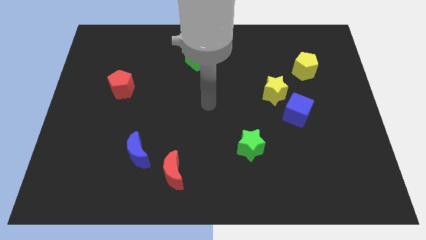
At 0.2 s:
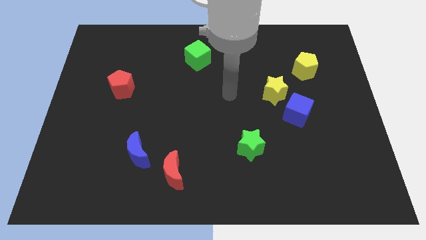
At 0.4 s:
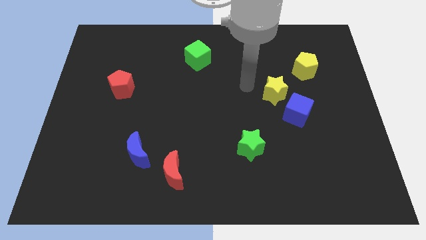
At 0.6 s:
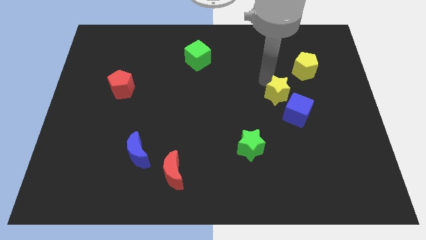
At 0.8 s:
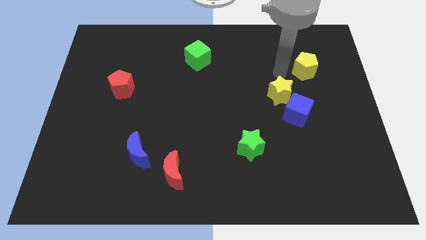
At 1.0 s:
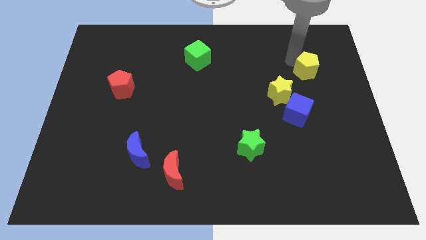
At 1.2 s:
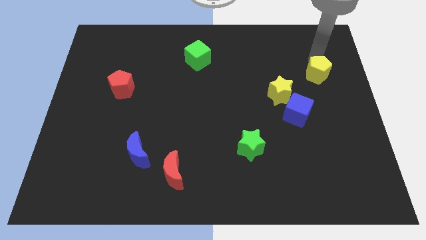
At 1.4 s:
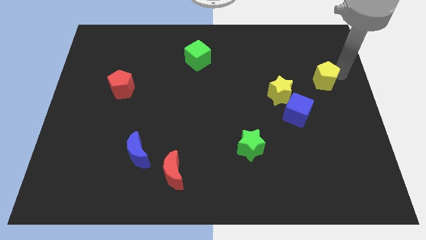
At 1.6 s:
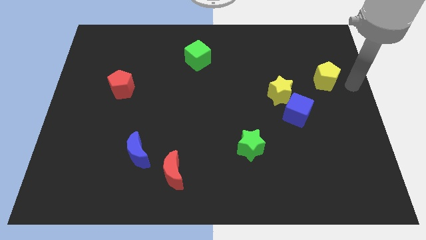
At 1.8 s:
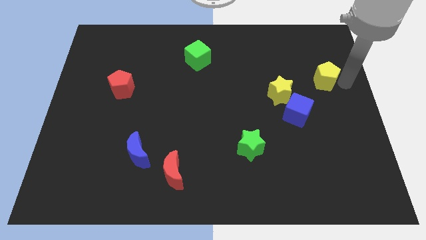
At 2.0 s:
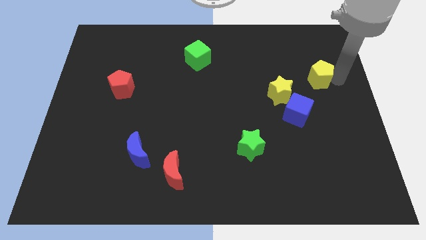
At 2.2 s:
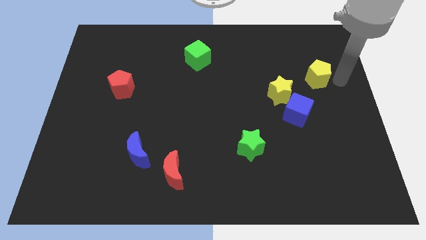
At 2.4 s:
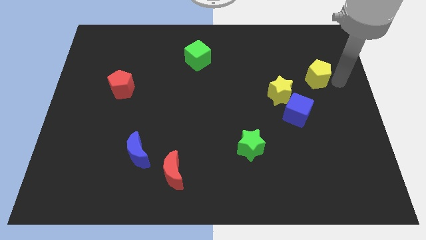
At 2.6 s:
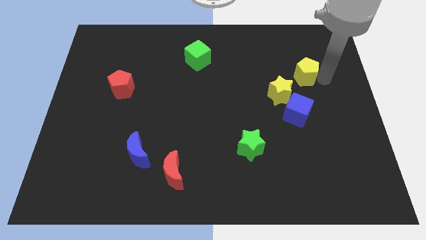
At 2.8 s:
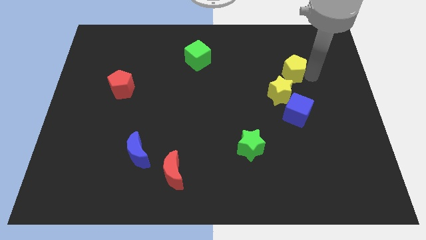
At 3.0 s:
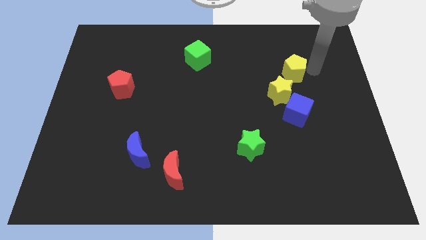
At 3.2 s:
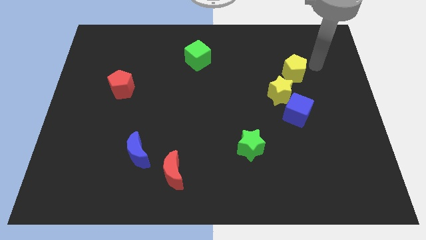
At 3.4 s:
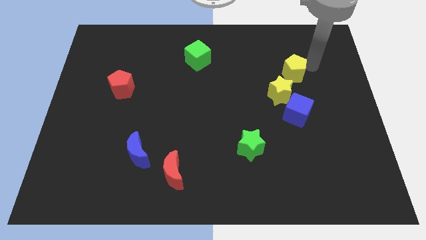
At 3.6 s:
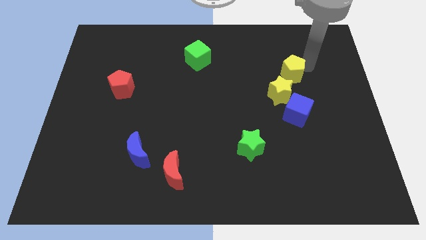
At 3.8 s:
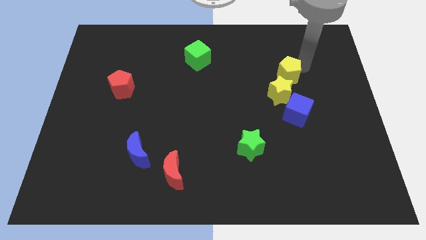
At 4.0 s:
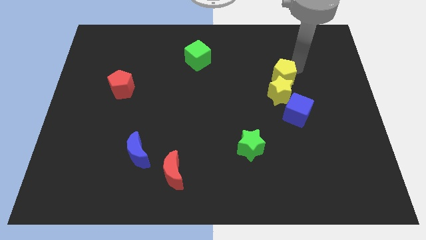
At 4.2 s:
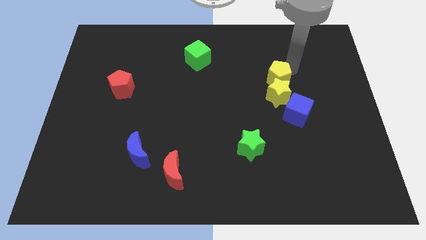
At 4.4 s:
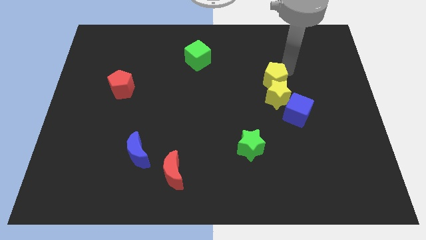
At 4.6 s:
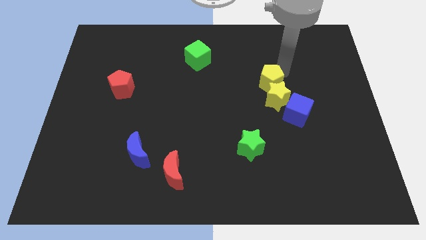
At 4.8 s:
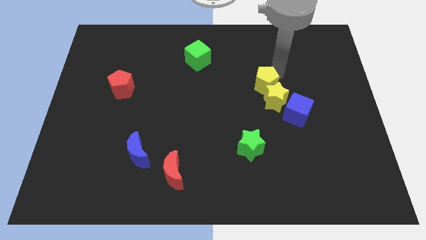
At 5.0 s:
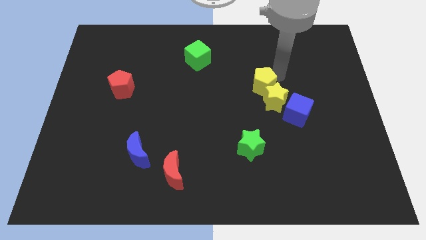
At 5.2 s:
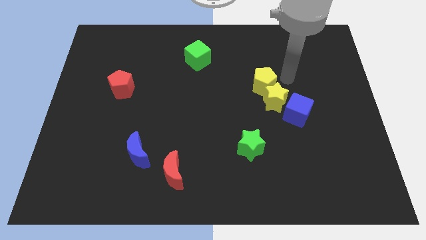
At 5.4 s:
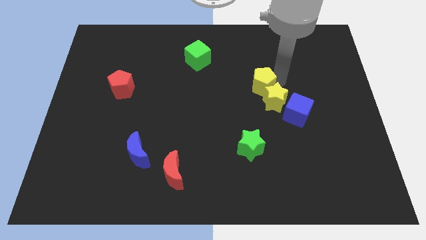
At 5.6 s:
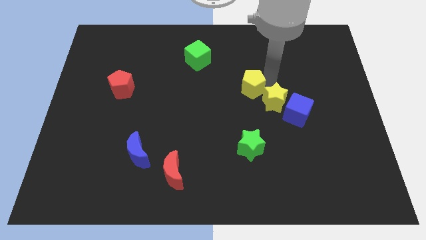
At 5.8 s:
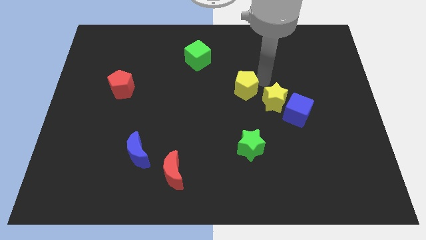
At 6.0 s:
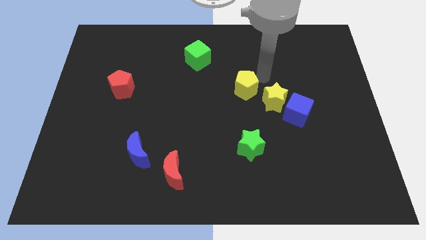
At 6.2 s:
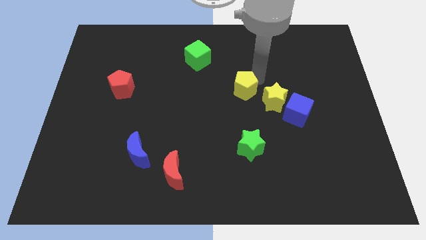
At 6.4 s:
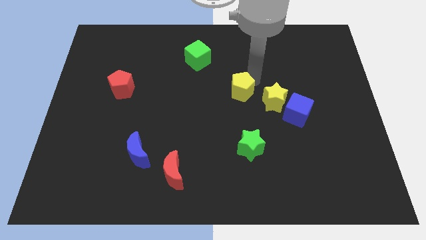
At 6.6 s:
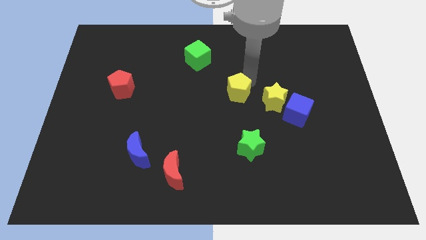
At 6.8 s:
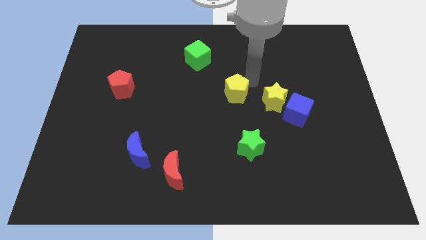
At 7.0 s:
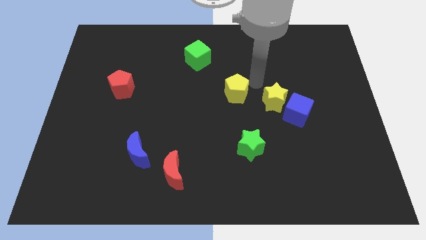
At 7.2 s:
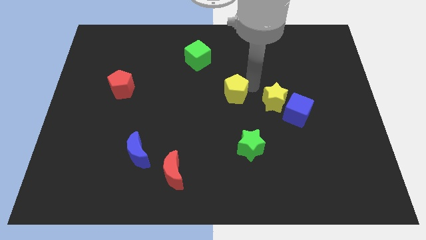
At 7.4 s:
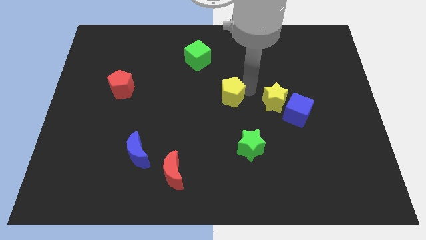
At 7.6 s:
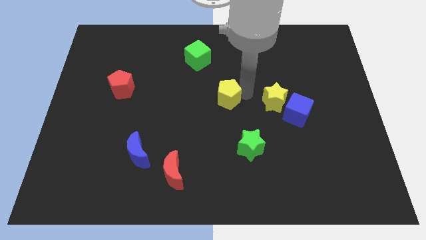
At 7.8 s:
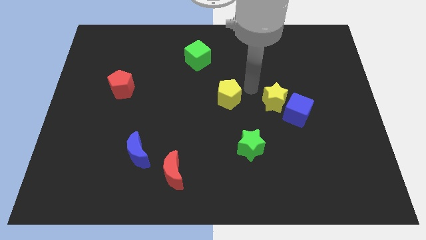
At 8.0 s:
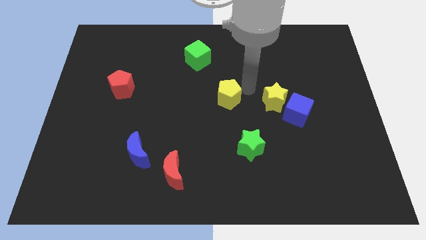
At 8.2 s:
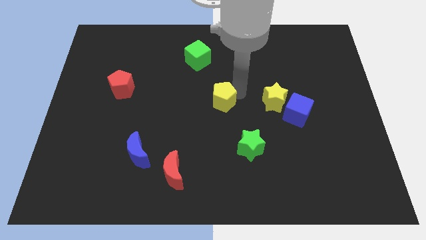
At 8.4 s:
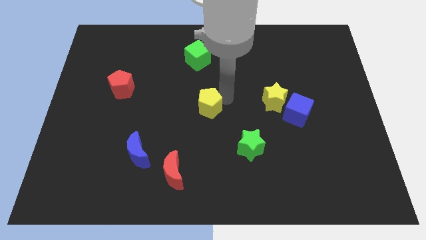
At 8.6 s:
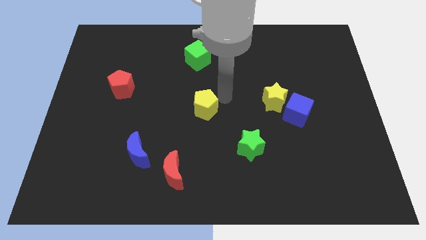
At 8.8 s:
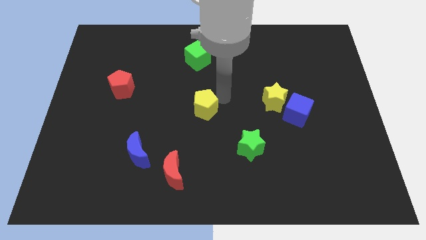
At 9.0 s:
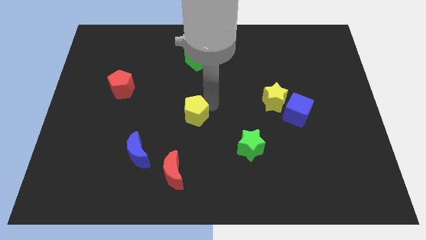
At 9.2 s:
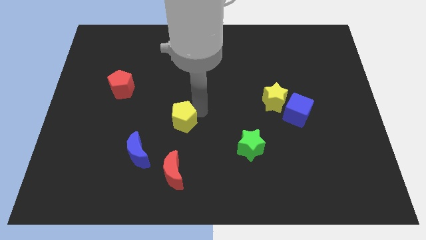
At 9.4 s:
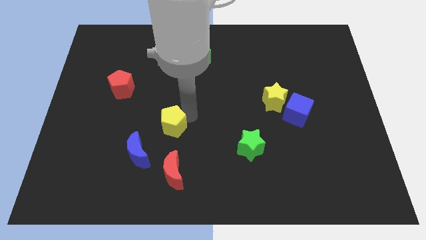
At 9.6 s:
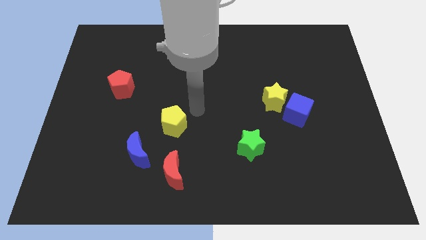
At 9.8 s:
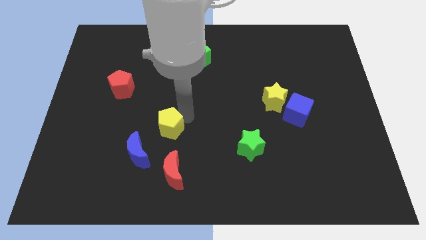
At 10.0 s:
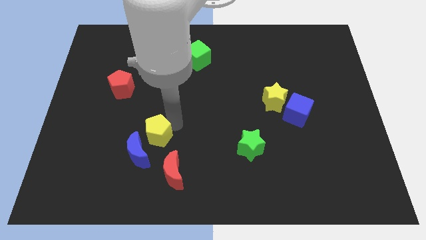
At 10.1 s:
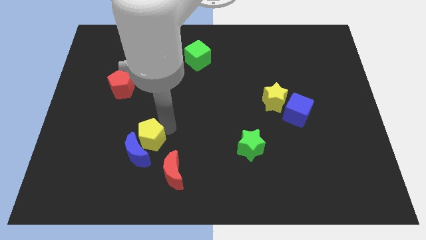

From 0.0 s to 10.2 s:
put the yellow pentagon towards the blue moon

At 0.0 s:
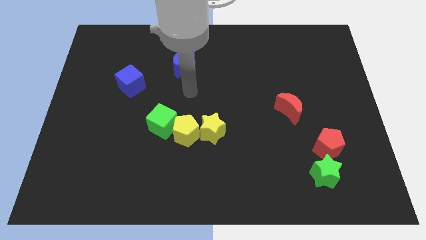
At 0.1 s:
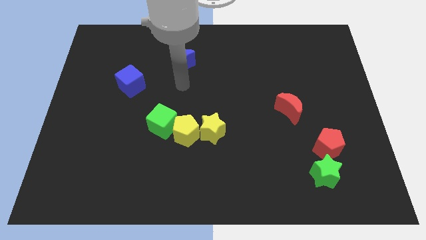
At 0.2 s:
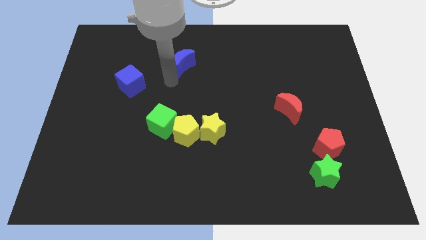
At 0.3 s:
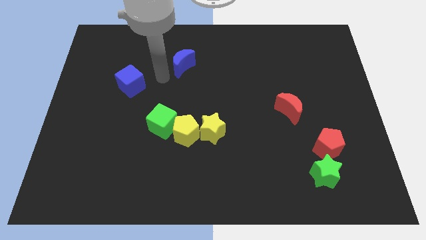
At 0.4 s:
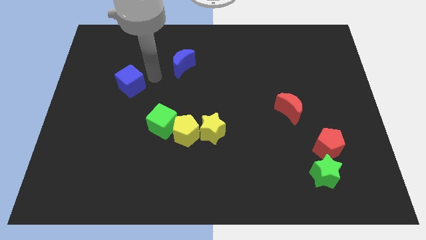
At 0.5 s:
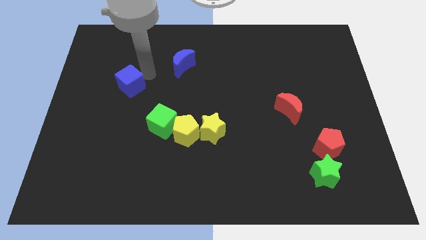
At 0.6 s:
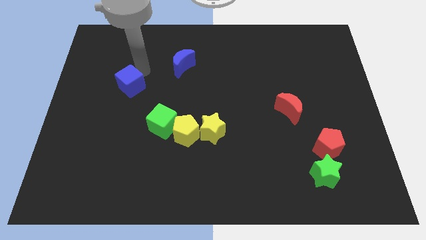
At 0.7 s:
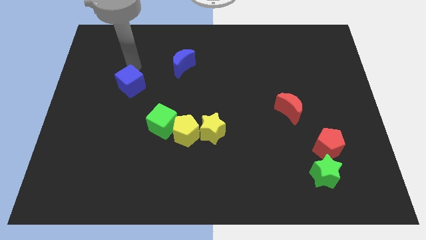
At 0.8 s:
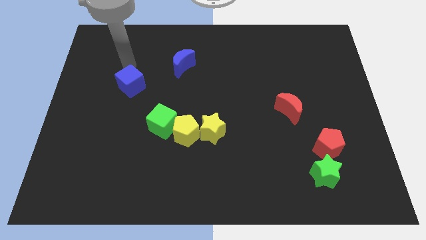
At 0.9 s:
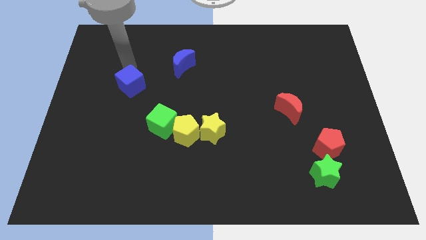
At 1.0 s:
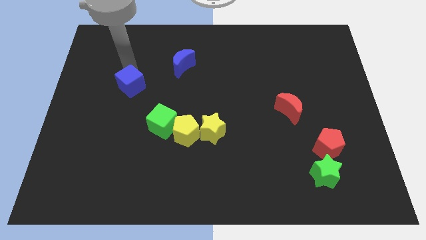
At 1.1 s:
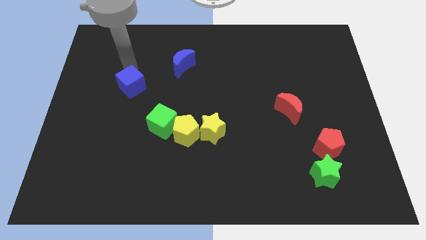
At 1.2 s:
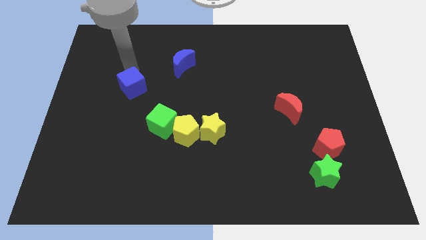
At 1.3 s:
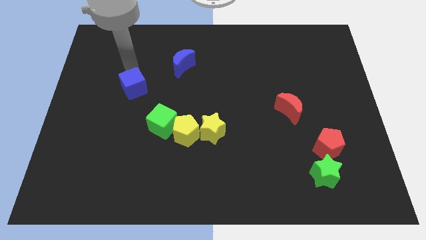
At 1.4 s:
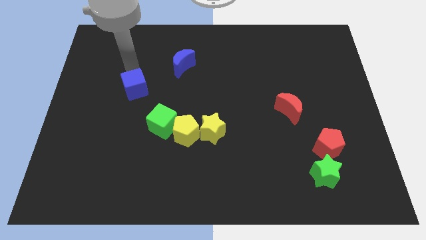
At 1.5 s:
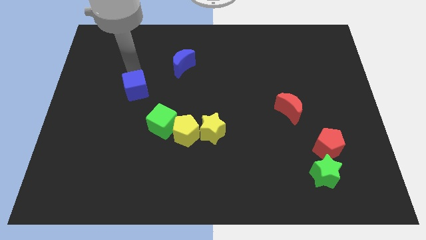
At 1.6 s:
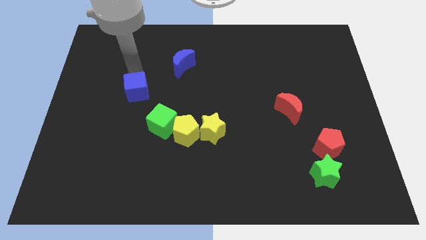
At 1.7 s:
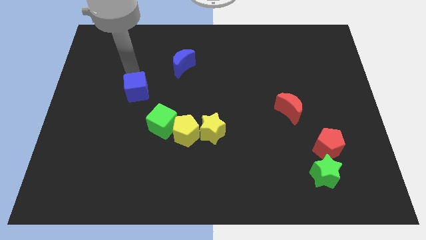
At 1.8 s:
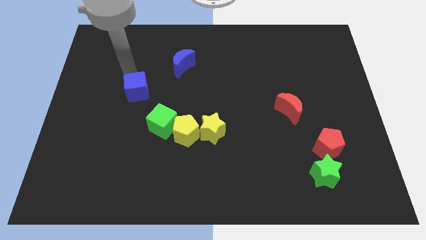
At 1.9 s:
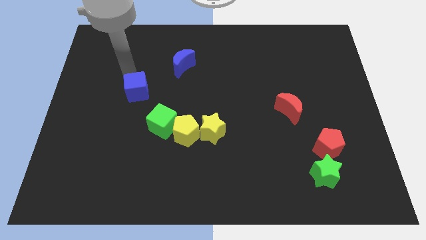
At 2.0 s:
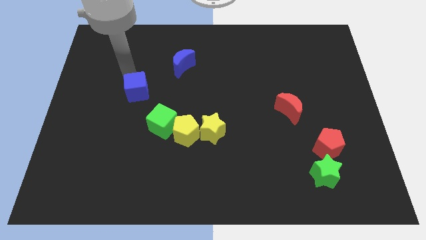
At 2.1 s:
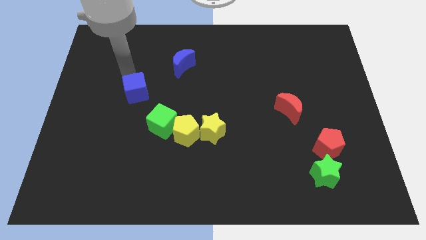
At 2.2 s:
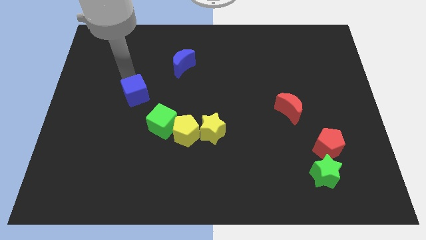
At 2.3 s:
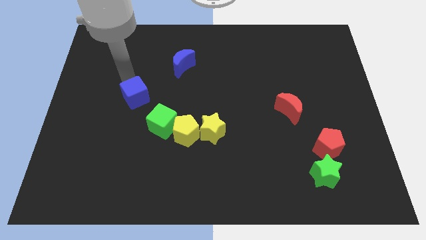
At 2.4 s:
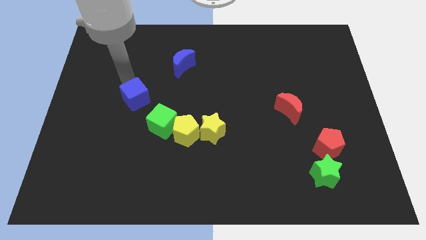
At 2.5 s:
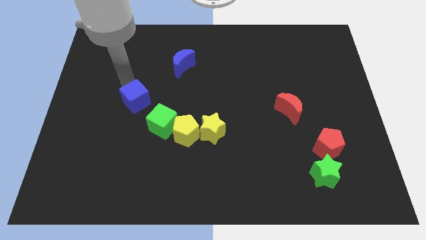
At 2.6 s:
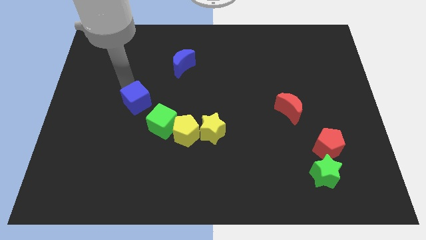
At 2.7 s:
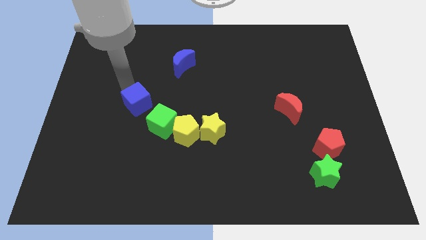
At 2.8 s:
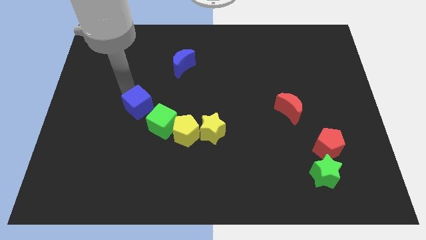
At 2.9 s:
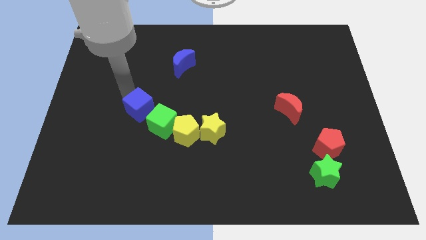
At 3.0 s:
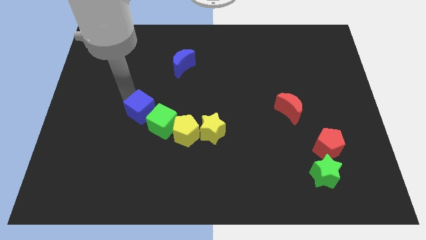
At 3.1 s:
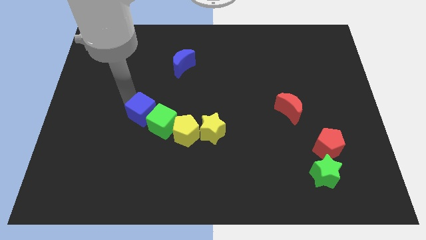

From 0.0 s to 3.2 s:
put the blue cube towards the green cube
